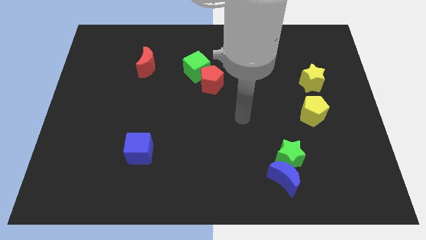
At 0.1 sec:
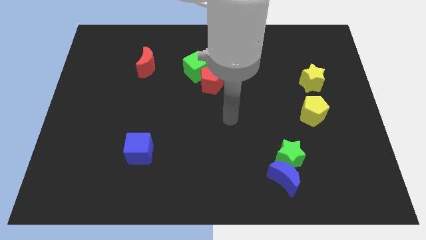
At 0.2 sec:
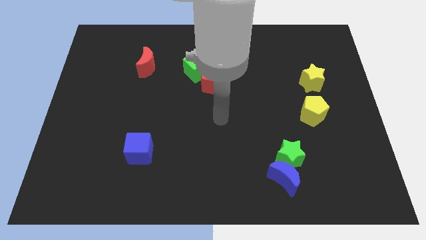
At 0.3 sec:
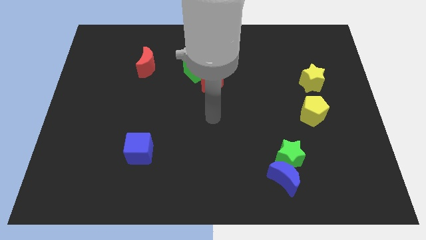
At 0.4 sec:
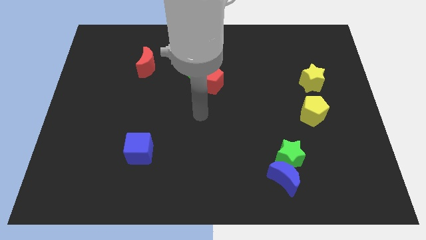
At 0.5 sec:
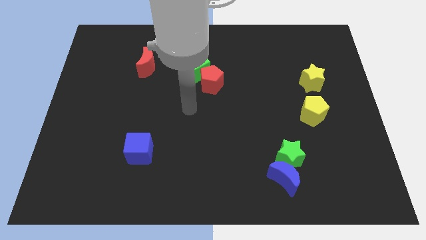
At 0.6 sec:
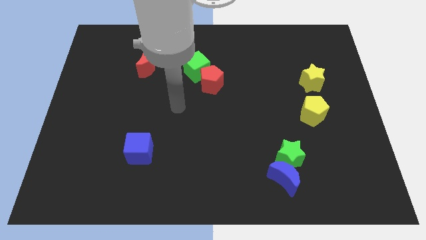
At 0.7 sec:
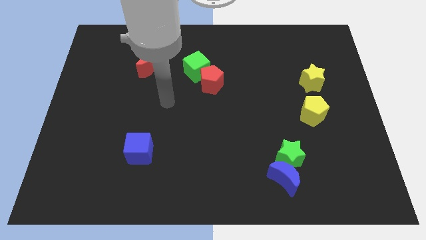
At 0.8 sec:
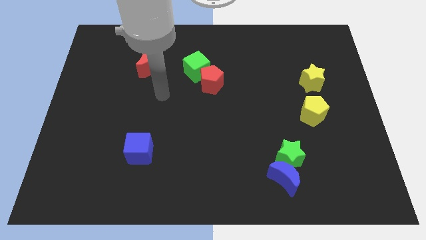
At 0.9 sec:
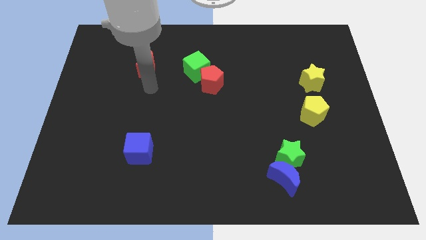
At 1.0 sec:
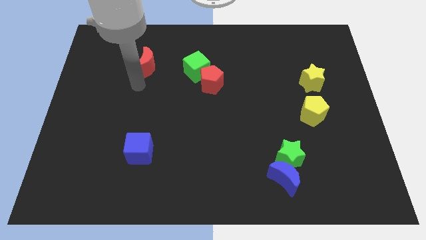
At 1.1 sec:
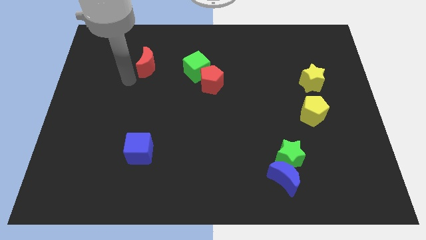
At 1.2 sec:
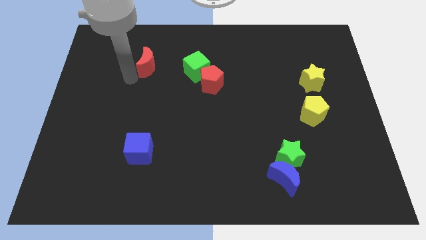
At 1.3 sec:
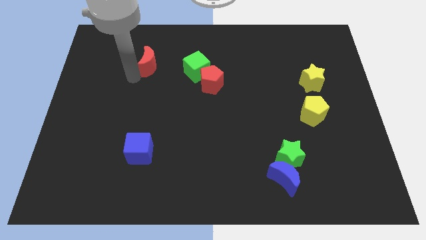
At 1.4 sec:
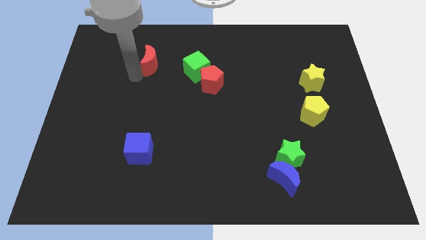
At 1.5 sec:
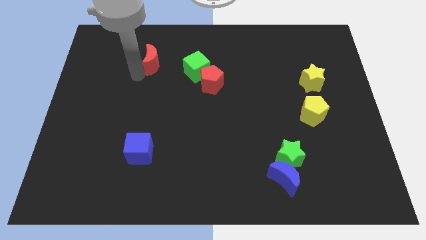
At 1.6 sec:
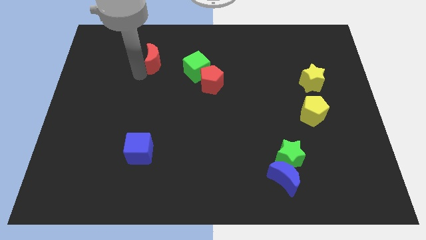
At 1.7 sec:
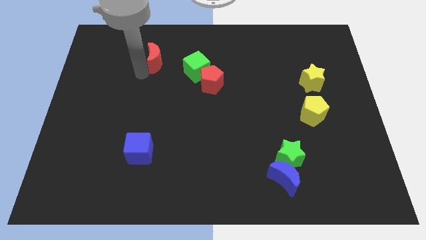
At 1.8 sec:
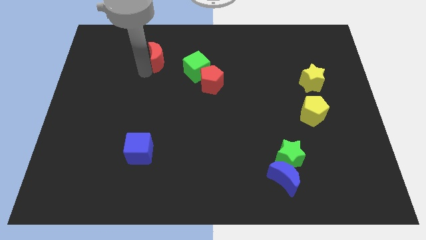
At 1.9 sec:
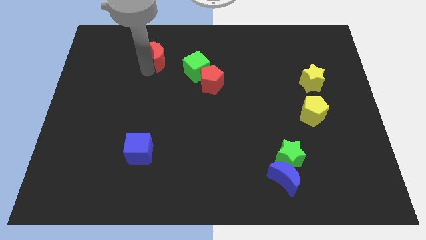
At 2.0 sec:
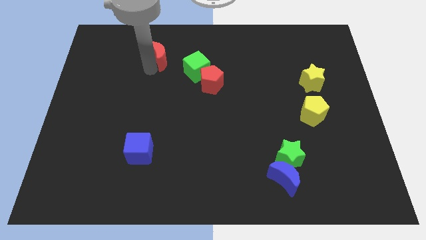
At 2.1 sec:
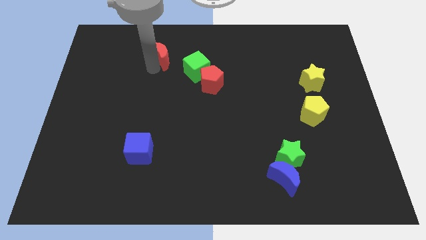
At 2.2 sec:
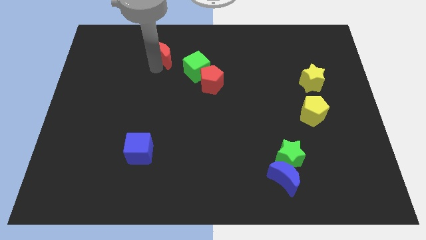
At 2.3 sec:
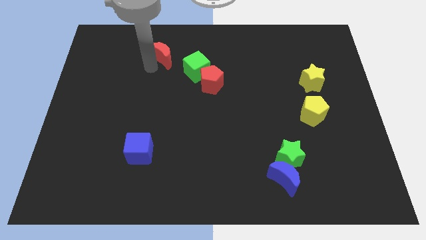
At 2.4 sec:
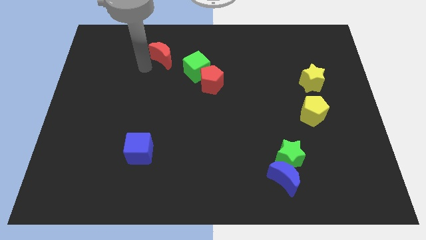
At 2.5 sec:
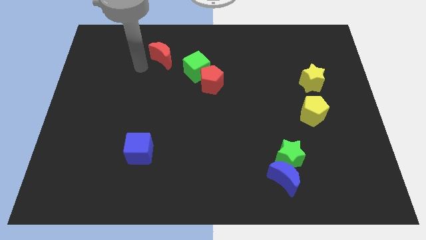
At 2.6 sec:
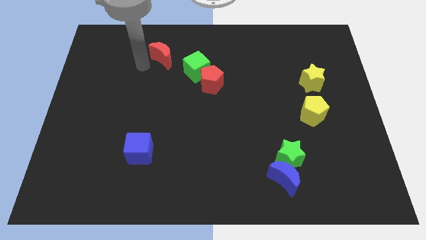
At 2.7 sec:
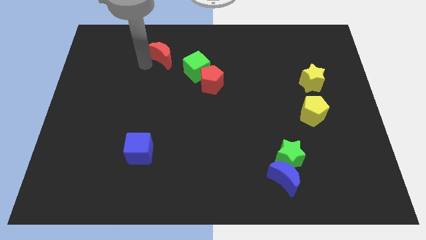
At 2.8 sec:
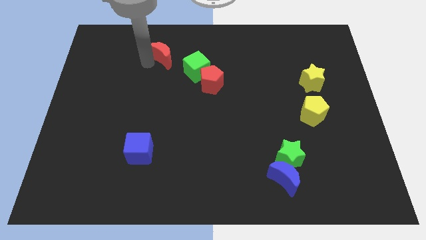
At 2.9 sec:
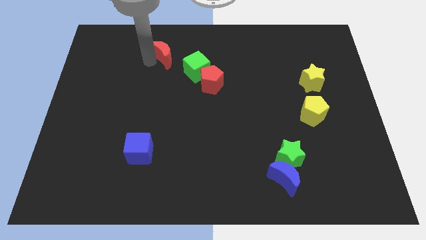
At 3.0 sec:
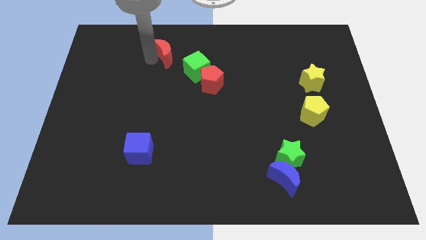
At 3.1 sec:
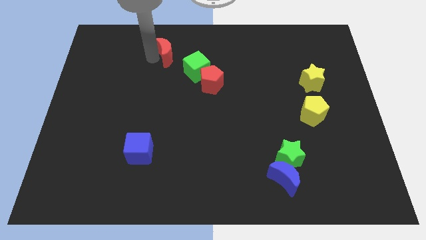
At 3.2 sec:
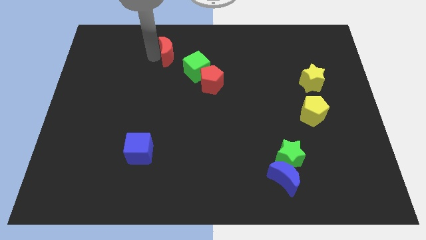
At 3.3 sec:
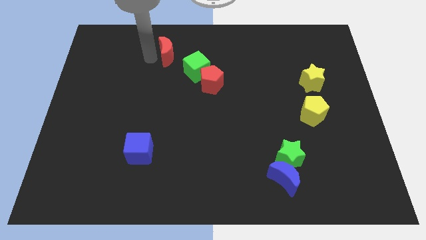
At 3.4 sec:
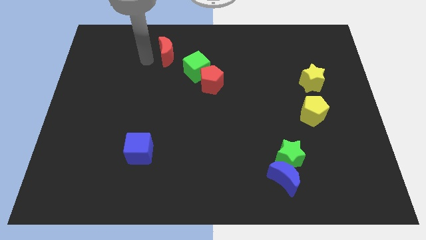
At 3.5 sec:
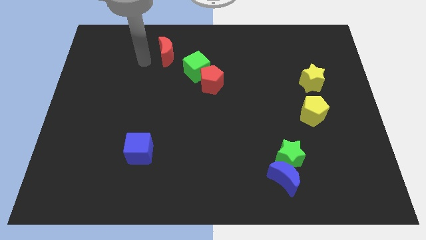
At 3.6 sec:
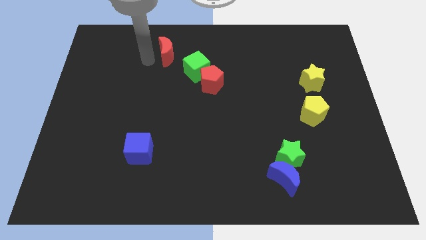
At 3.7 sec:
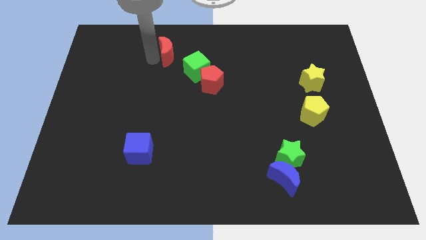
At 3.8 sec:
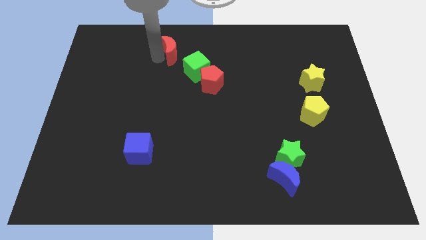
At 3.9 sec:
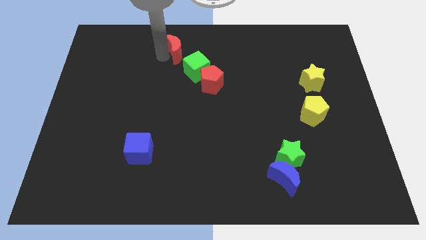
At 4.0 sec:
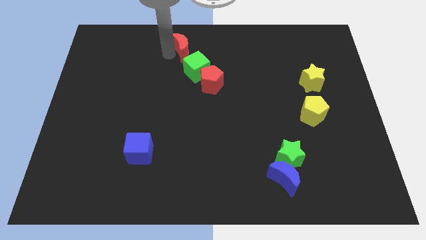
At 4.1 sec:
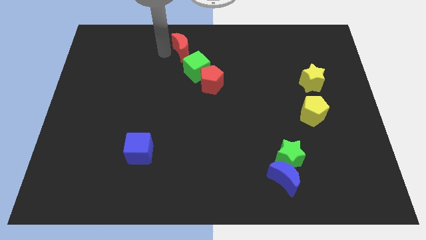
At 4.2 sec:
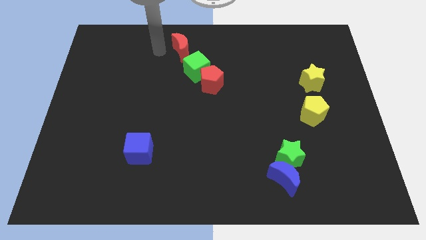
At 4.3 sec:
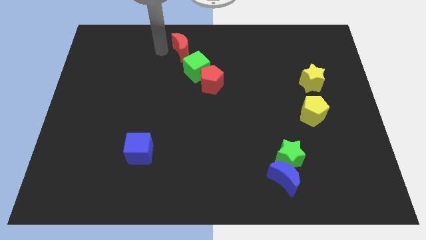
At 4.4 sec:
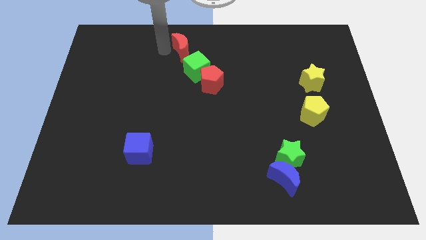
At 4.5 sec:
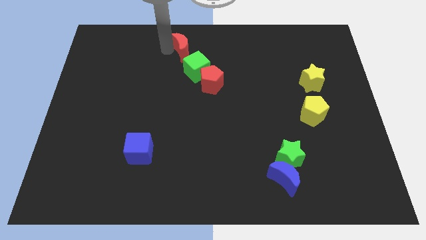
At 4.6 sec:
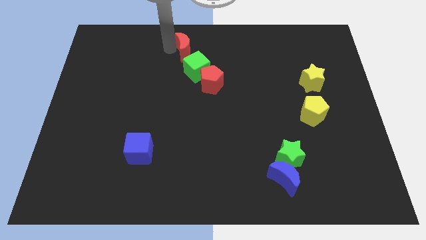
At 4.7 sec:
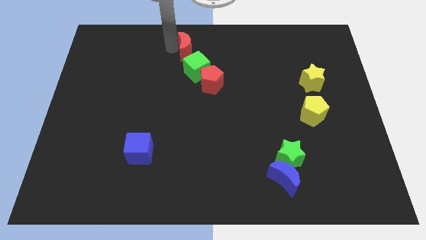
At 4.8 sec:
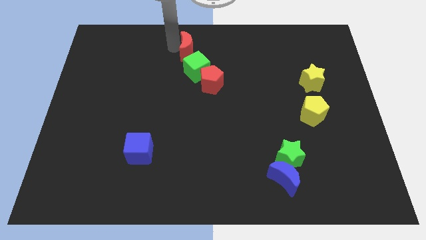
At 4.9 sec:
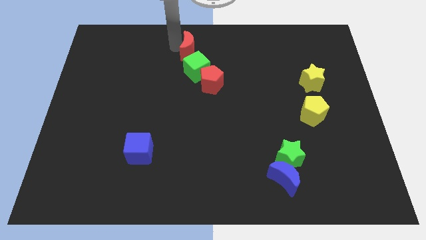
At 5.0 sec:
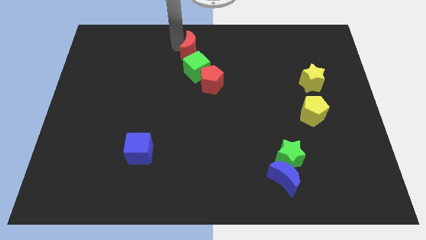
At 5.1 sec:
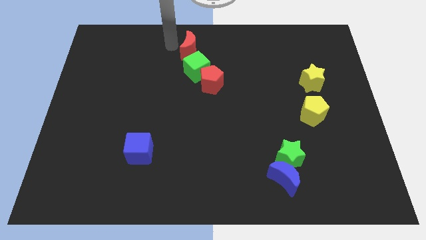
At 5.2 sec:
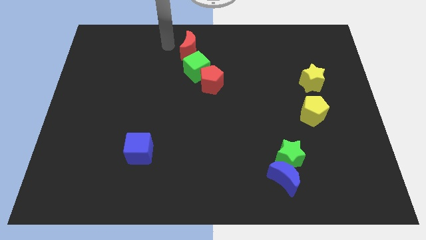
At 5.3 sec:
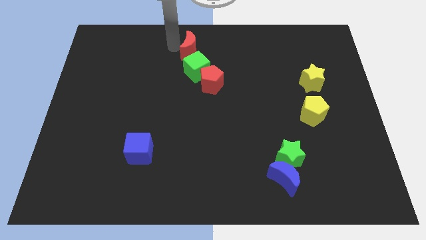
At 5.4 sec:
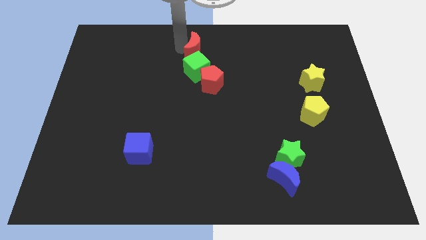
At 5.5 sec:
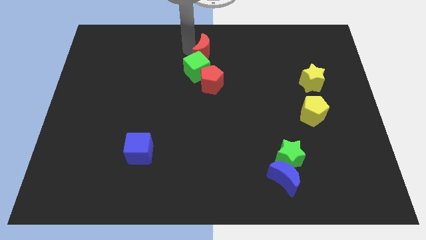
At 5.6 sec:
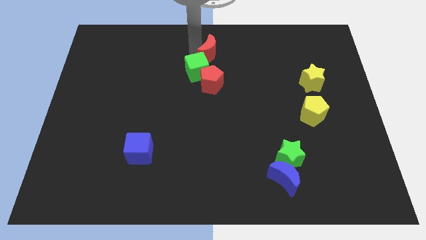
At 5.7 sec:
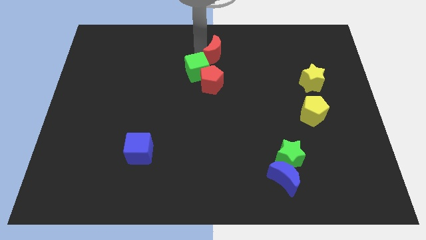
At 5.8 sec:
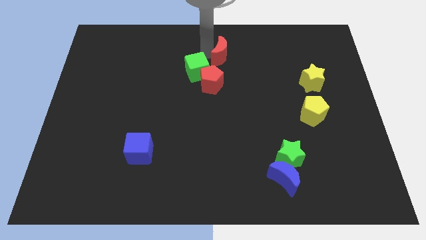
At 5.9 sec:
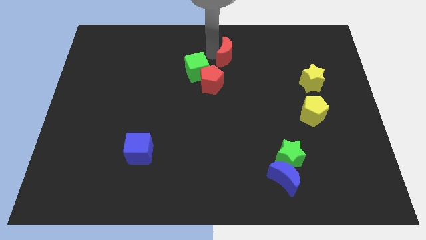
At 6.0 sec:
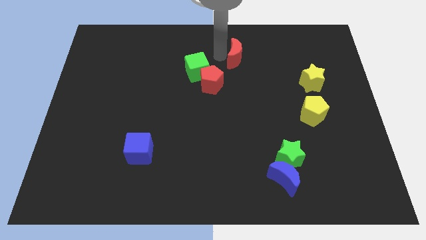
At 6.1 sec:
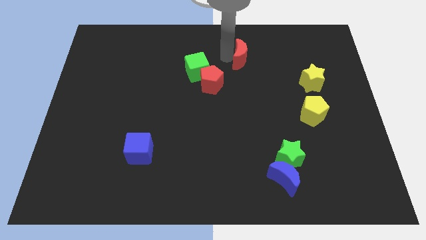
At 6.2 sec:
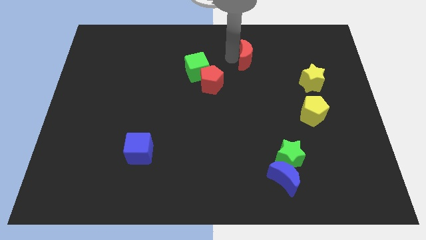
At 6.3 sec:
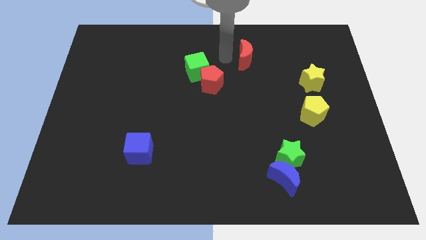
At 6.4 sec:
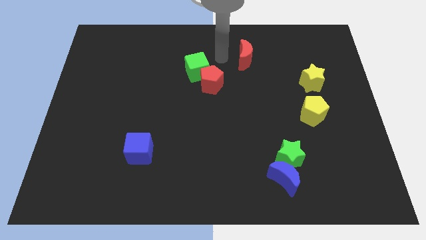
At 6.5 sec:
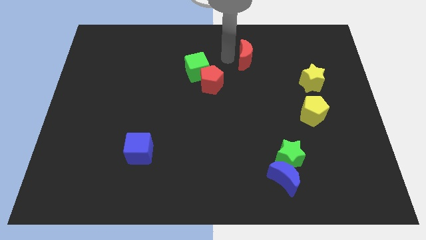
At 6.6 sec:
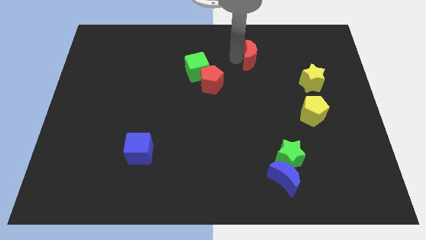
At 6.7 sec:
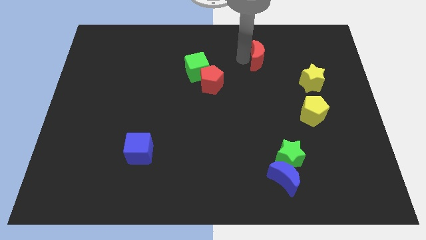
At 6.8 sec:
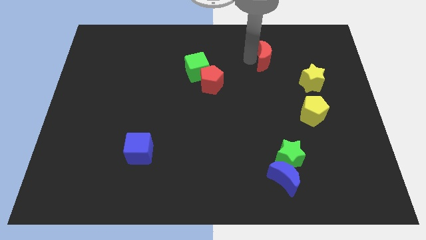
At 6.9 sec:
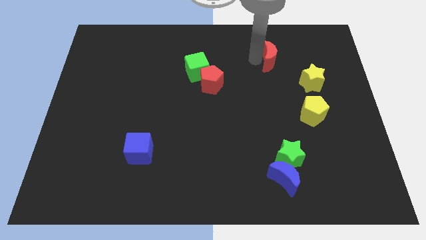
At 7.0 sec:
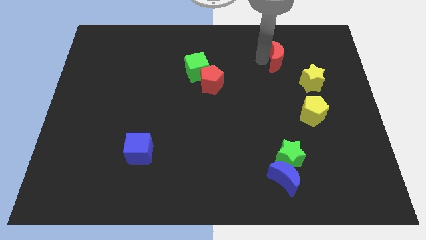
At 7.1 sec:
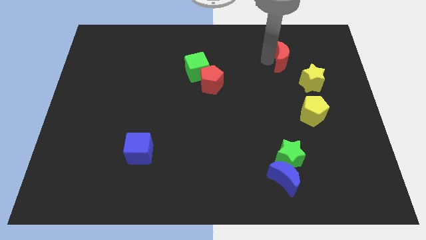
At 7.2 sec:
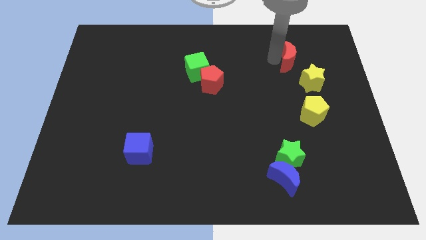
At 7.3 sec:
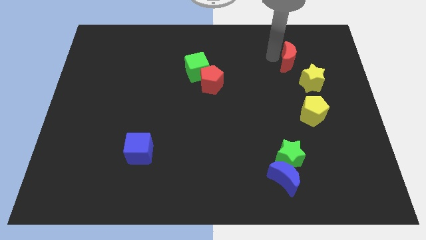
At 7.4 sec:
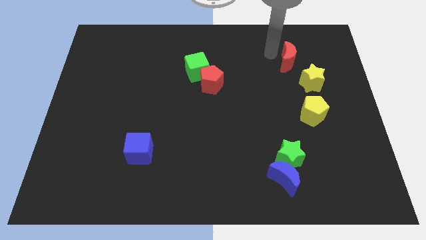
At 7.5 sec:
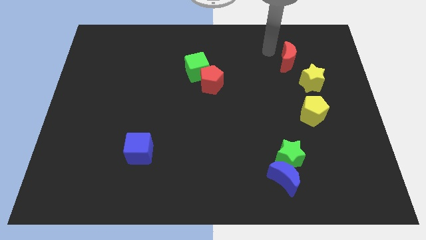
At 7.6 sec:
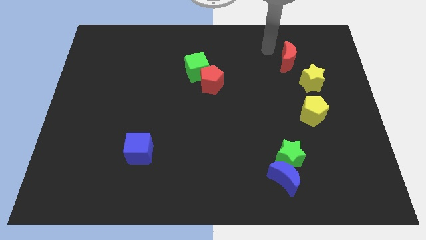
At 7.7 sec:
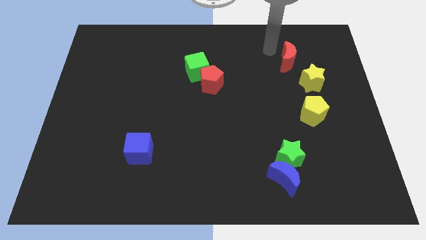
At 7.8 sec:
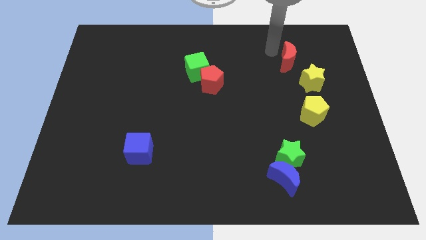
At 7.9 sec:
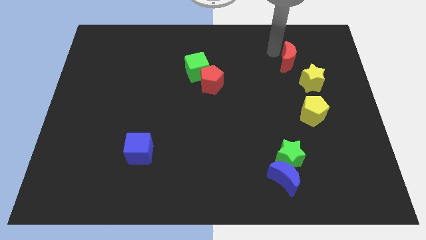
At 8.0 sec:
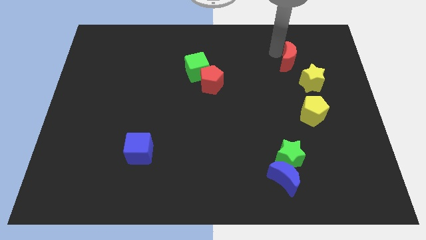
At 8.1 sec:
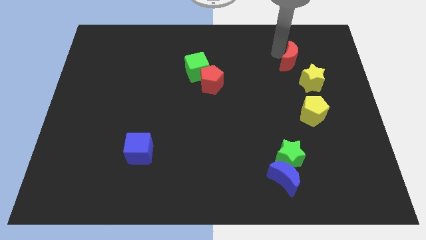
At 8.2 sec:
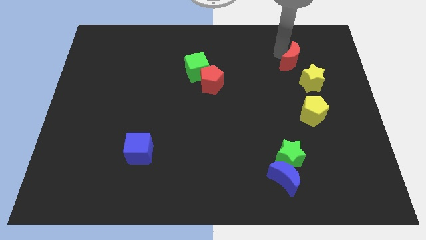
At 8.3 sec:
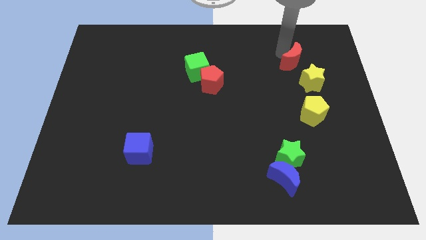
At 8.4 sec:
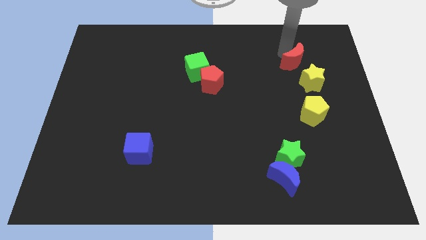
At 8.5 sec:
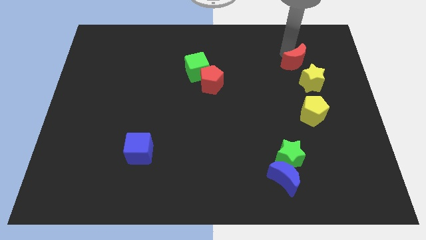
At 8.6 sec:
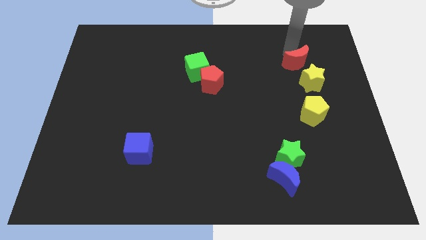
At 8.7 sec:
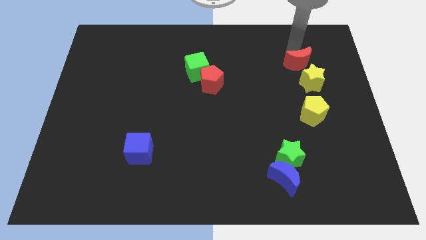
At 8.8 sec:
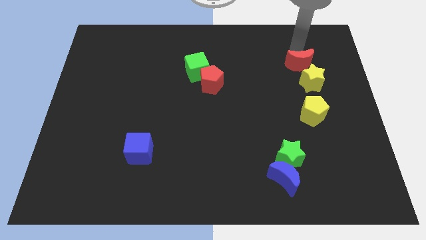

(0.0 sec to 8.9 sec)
slide the red moon to the top of the yellow pentagon
